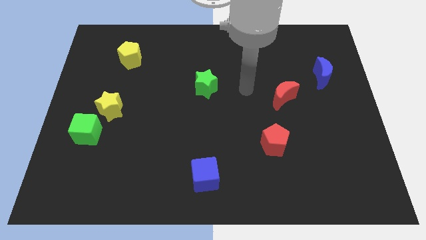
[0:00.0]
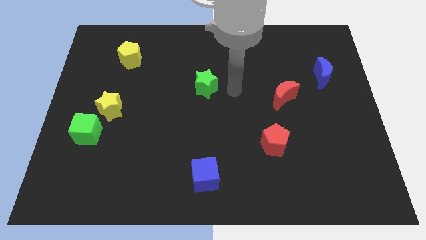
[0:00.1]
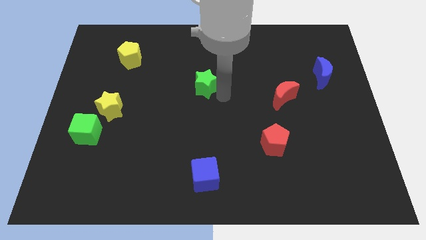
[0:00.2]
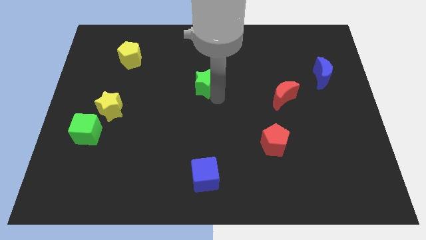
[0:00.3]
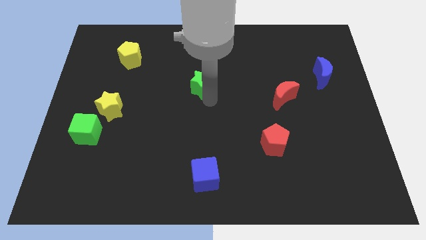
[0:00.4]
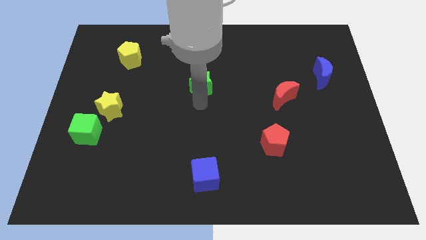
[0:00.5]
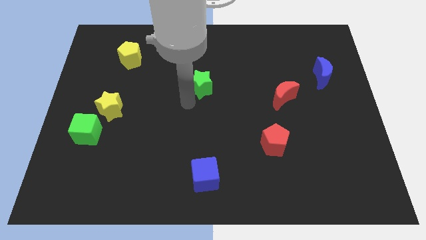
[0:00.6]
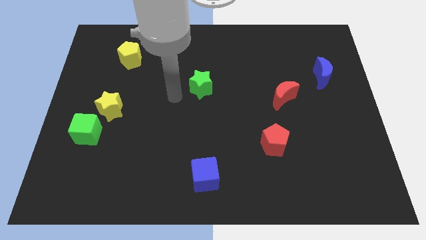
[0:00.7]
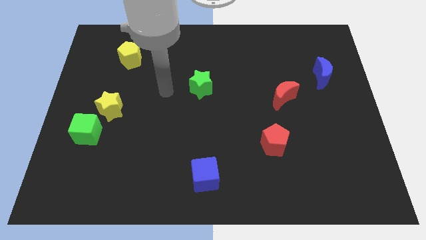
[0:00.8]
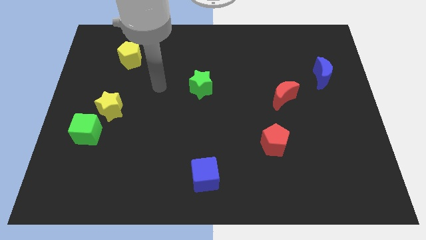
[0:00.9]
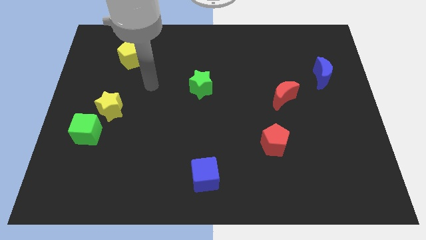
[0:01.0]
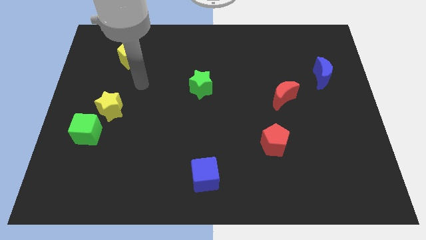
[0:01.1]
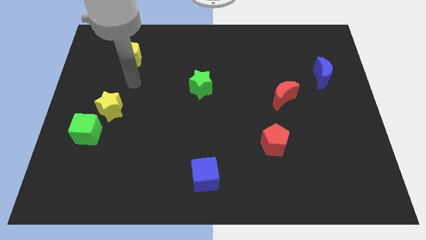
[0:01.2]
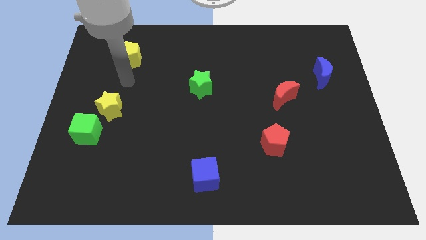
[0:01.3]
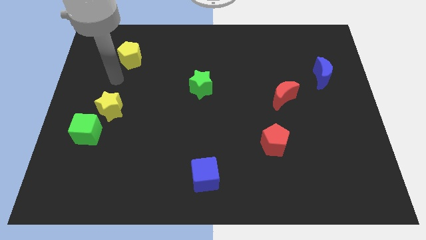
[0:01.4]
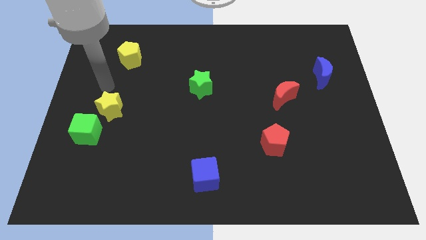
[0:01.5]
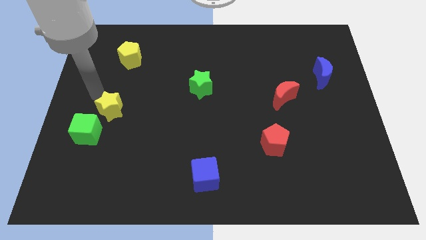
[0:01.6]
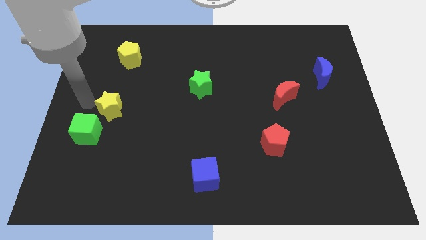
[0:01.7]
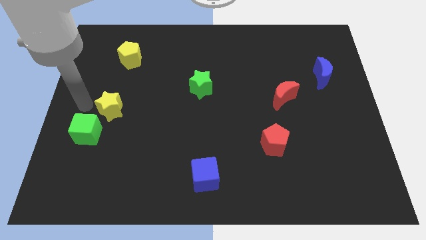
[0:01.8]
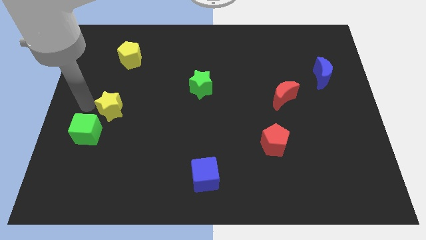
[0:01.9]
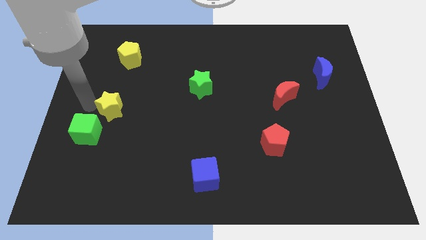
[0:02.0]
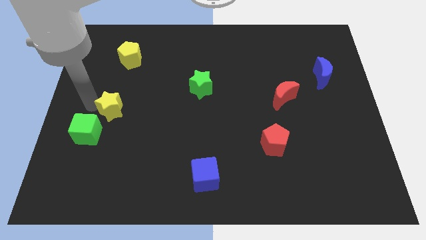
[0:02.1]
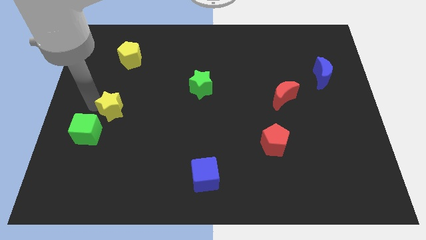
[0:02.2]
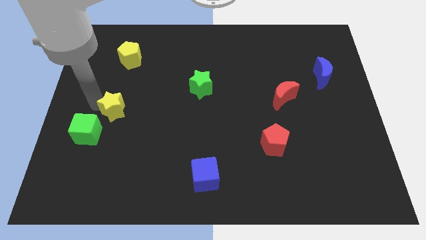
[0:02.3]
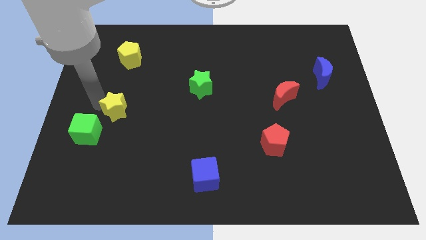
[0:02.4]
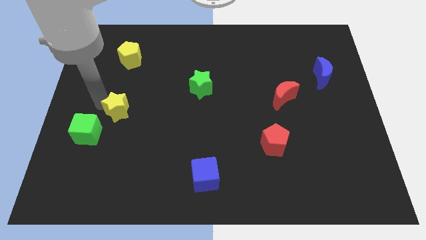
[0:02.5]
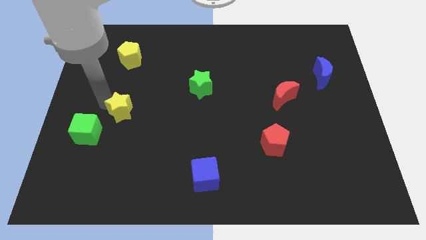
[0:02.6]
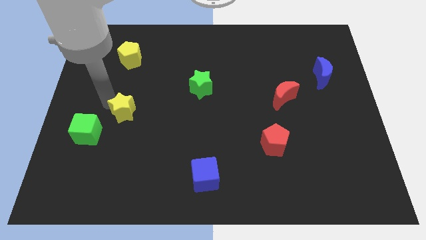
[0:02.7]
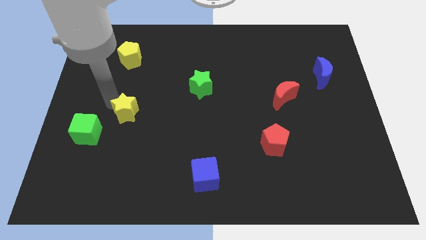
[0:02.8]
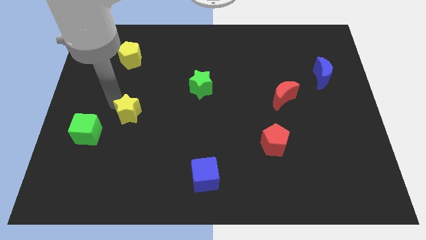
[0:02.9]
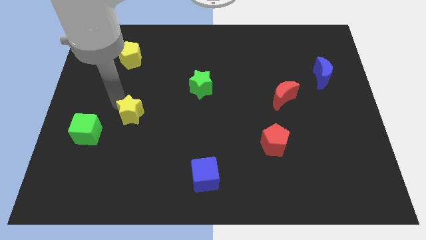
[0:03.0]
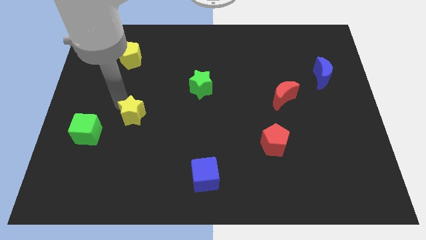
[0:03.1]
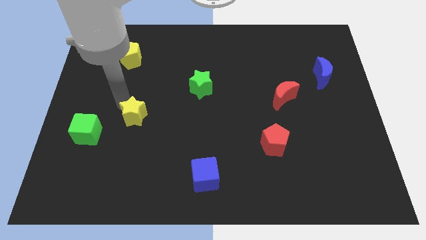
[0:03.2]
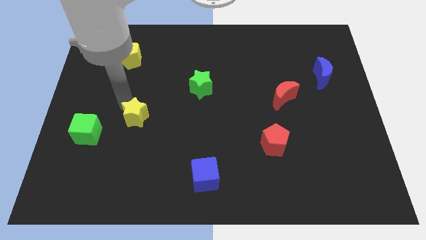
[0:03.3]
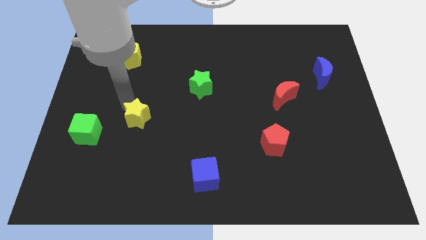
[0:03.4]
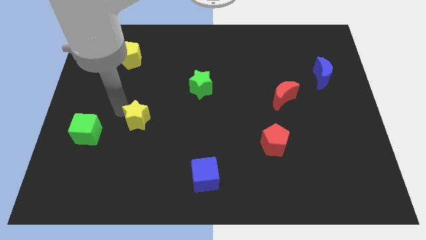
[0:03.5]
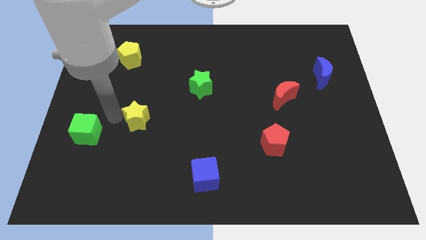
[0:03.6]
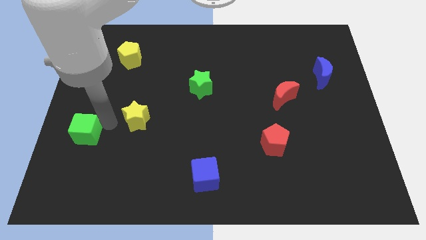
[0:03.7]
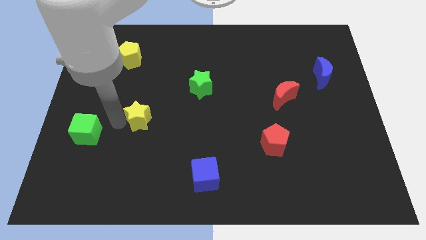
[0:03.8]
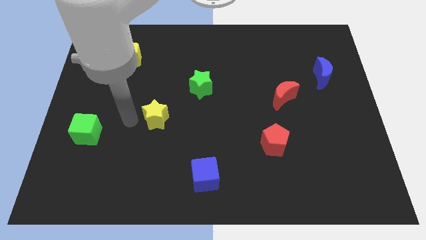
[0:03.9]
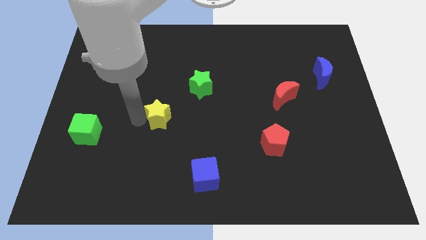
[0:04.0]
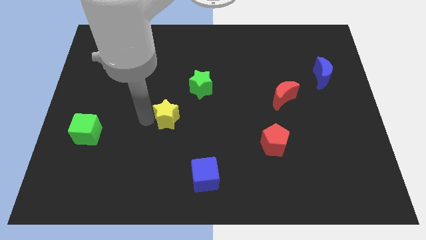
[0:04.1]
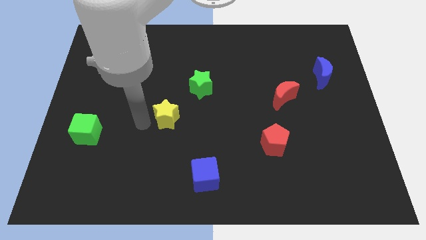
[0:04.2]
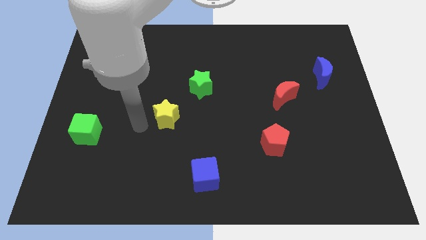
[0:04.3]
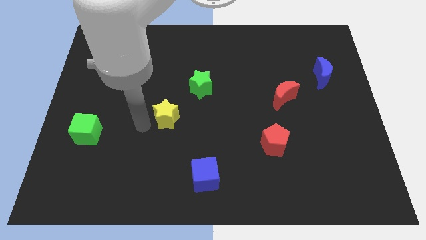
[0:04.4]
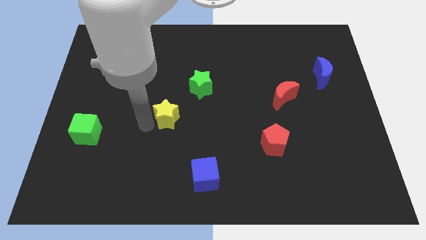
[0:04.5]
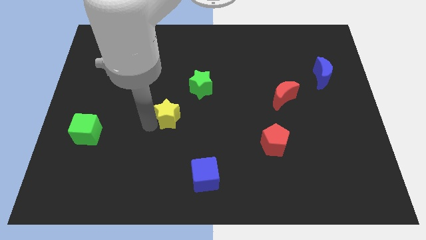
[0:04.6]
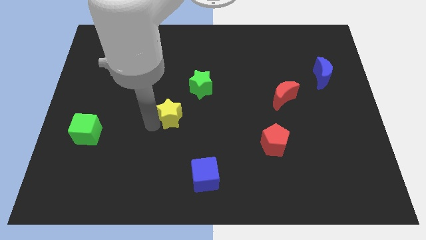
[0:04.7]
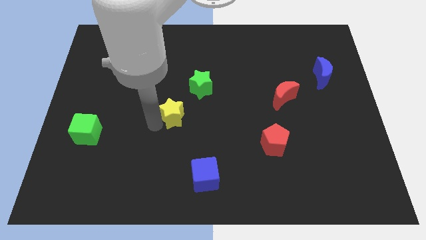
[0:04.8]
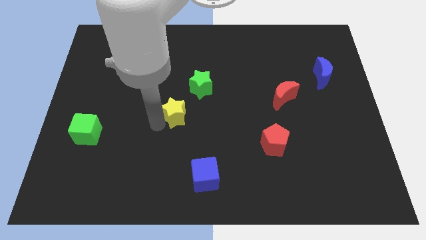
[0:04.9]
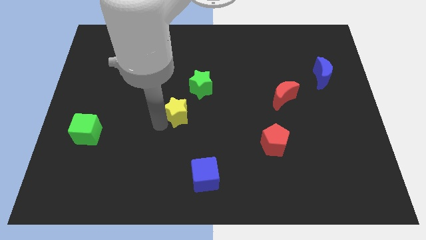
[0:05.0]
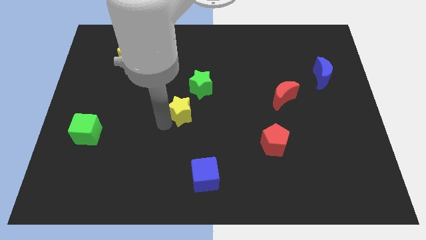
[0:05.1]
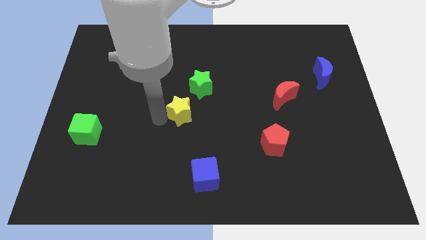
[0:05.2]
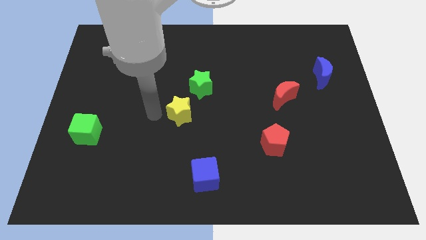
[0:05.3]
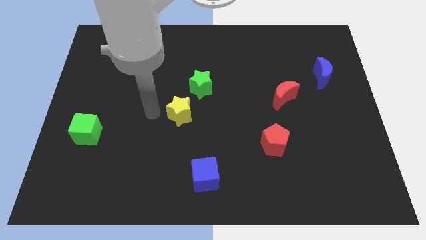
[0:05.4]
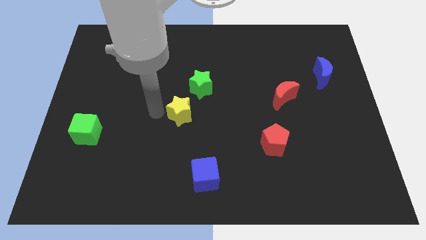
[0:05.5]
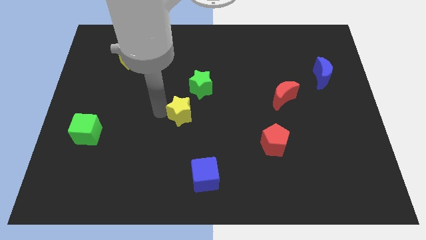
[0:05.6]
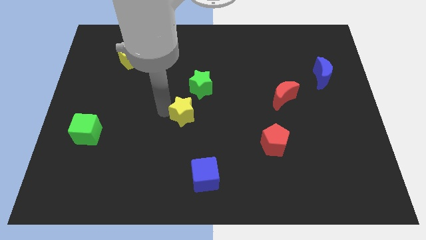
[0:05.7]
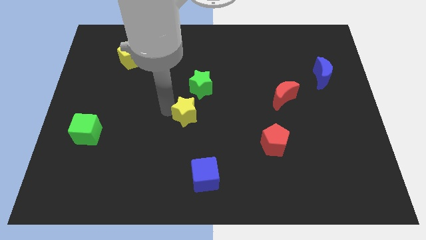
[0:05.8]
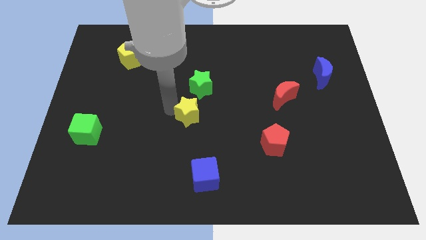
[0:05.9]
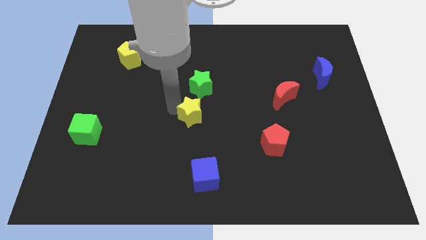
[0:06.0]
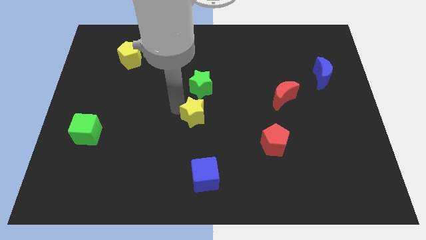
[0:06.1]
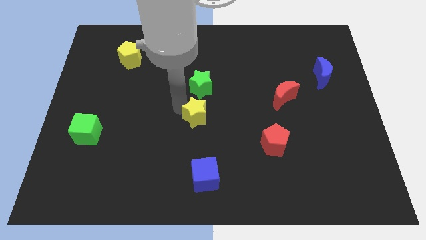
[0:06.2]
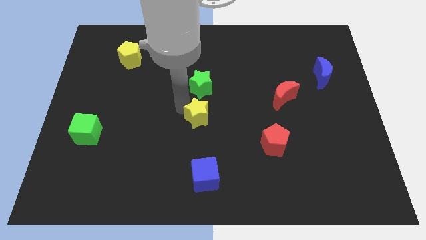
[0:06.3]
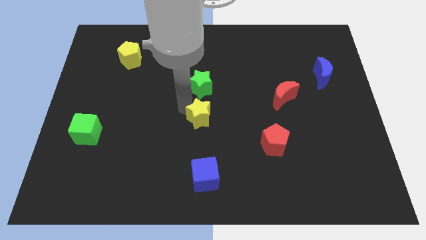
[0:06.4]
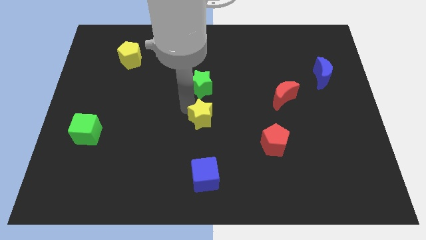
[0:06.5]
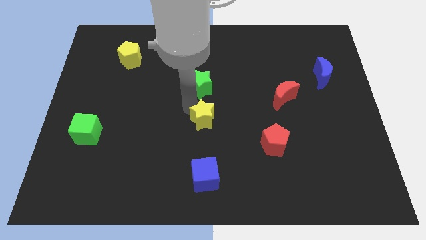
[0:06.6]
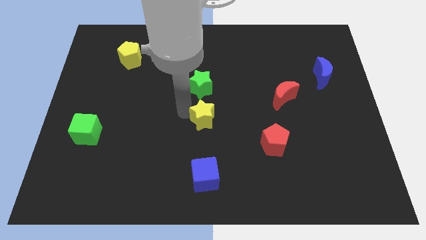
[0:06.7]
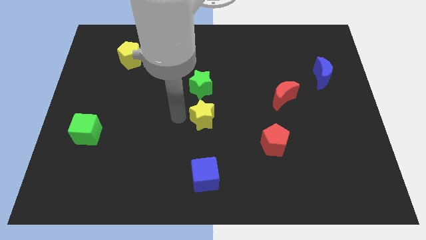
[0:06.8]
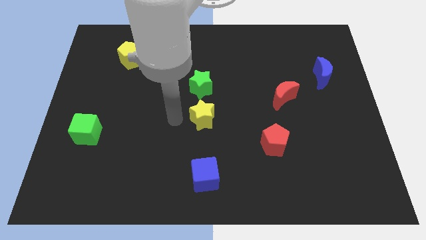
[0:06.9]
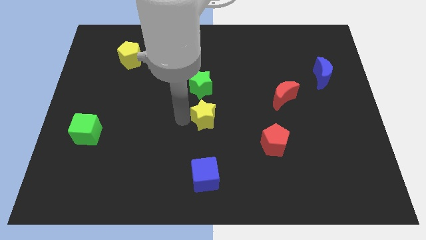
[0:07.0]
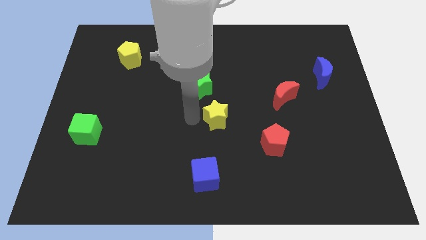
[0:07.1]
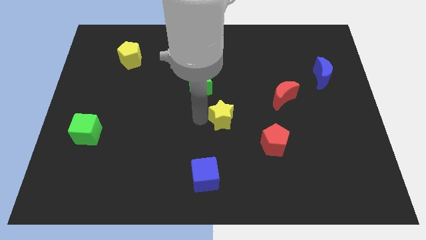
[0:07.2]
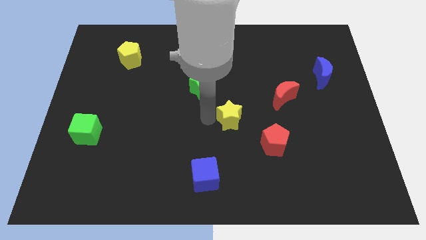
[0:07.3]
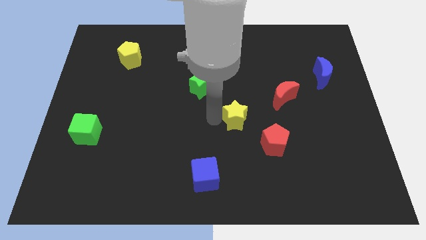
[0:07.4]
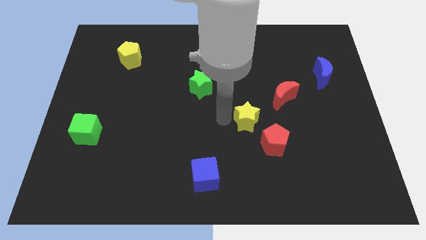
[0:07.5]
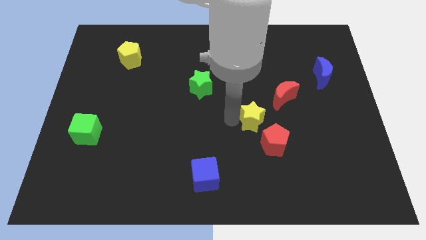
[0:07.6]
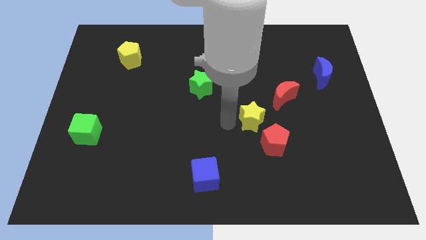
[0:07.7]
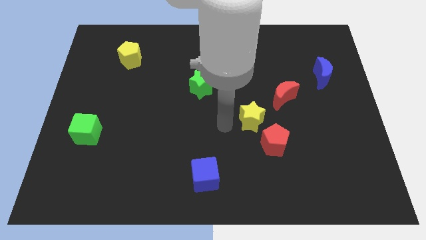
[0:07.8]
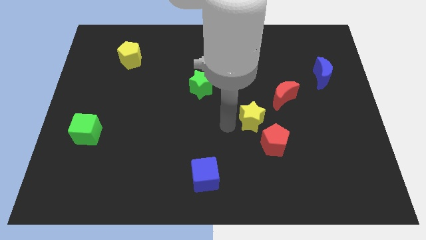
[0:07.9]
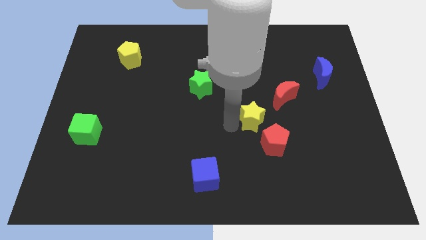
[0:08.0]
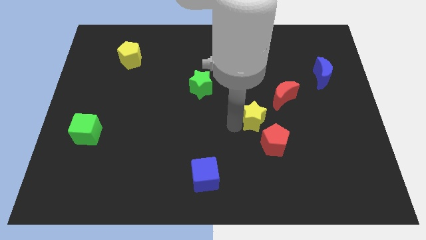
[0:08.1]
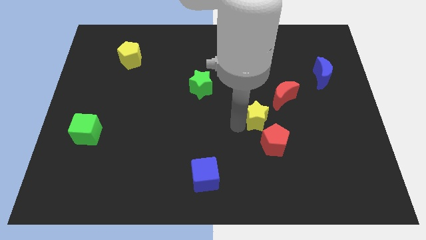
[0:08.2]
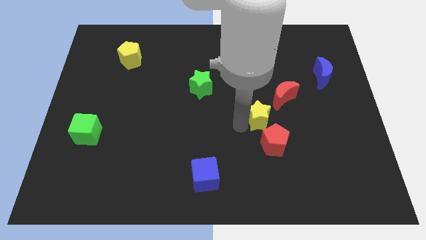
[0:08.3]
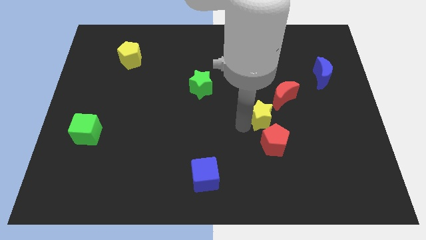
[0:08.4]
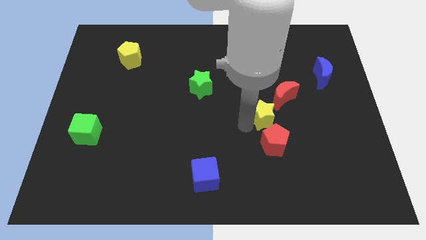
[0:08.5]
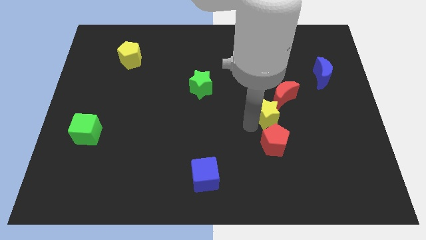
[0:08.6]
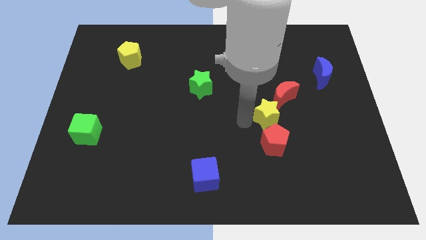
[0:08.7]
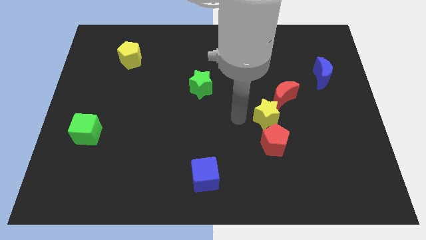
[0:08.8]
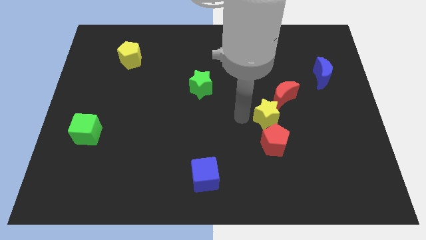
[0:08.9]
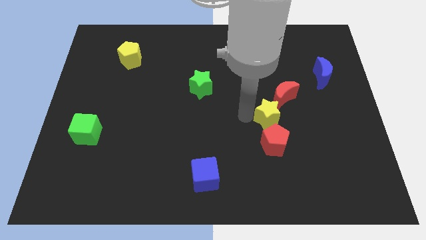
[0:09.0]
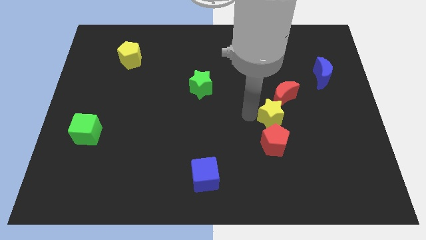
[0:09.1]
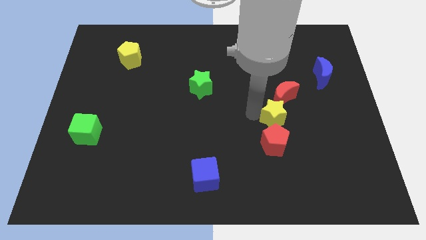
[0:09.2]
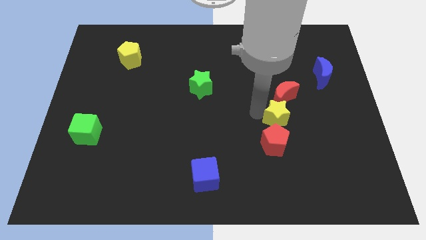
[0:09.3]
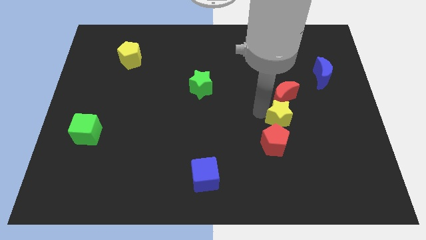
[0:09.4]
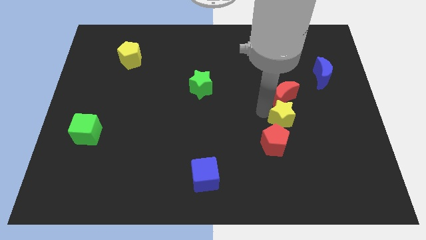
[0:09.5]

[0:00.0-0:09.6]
put the yellow star diagonally down and to the right of the red moon
